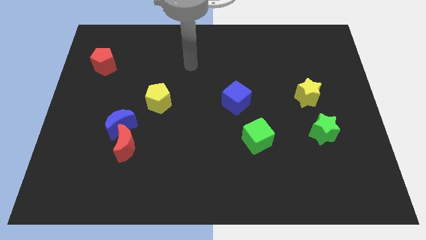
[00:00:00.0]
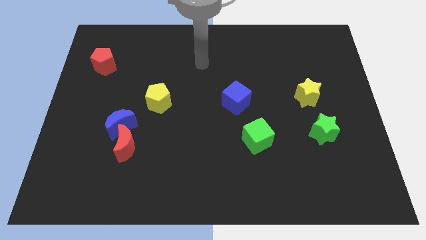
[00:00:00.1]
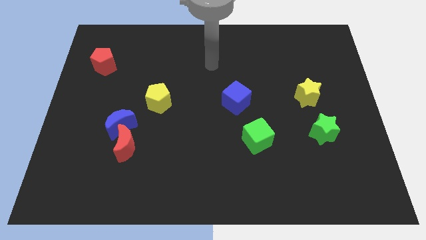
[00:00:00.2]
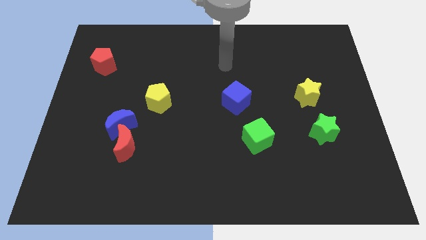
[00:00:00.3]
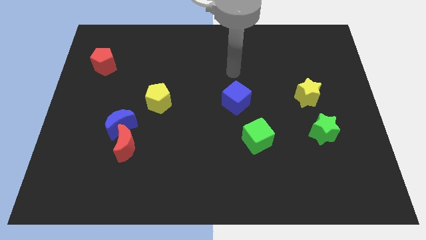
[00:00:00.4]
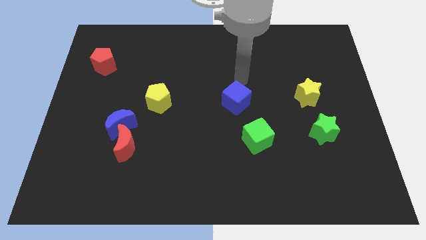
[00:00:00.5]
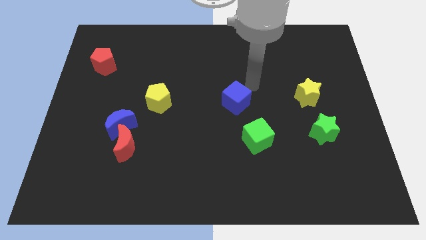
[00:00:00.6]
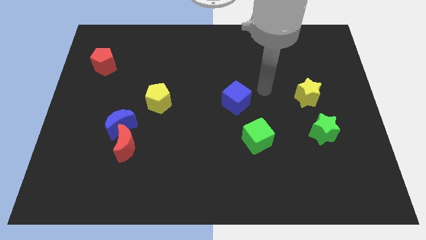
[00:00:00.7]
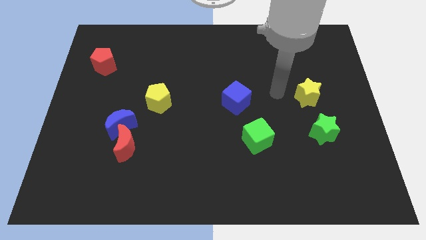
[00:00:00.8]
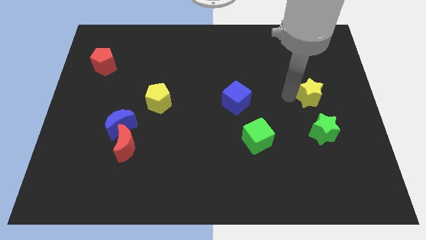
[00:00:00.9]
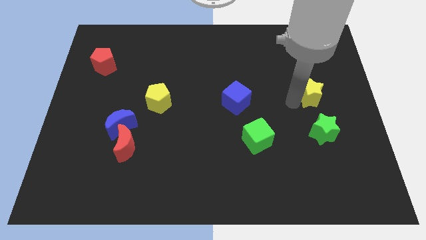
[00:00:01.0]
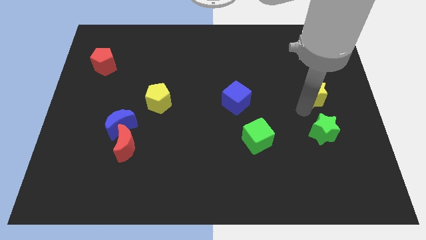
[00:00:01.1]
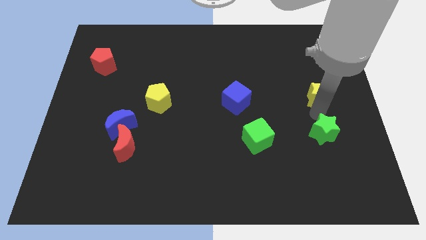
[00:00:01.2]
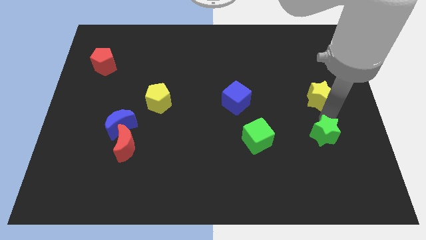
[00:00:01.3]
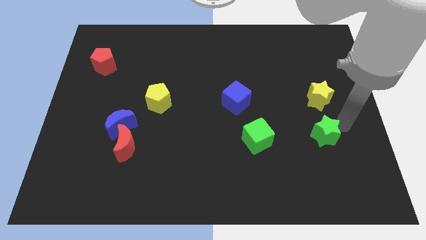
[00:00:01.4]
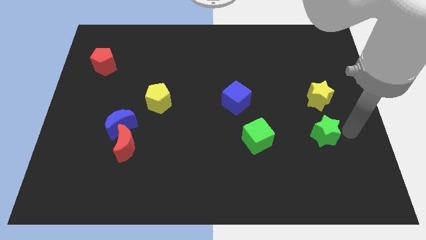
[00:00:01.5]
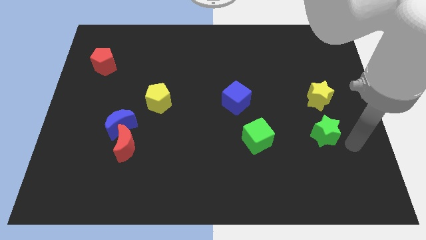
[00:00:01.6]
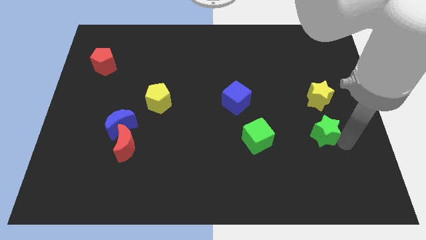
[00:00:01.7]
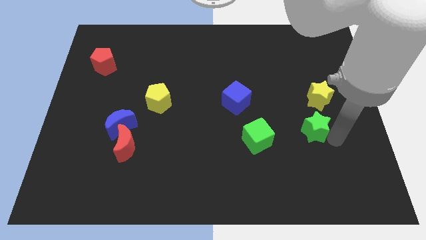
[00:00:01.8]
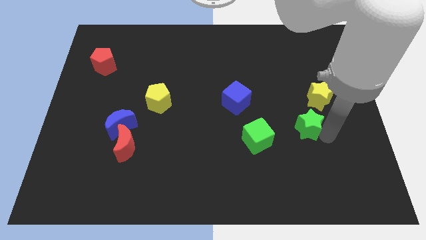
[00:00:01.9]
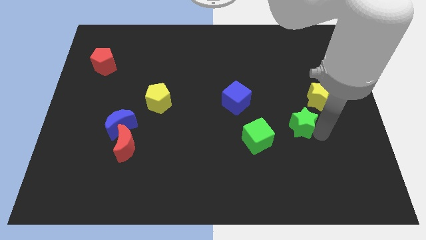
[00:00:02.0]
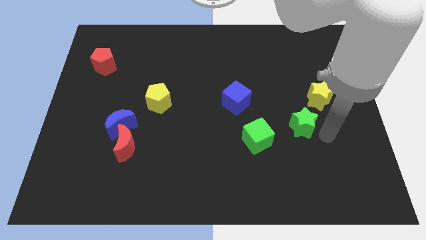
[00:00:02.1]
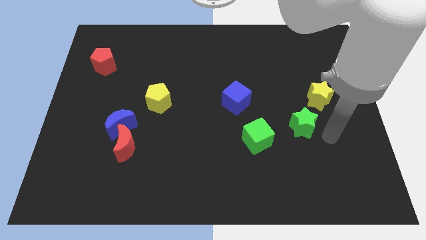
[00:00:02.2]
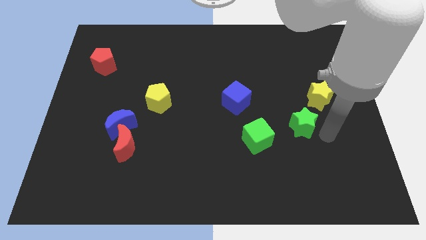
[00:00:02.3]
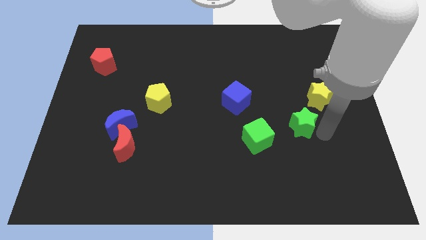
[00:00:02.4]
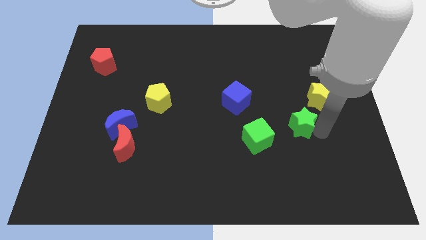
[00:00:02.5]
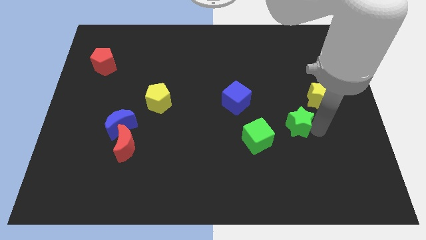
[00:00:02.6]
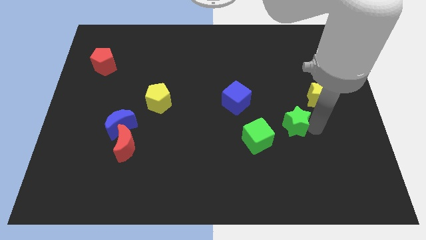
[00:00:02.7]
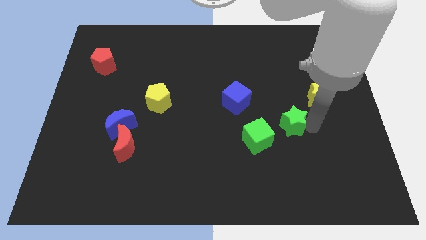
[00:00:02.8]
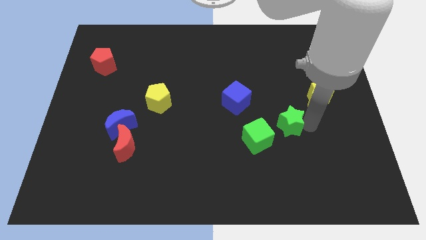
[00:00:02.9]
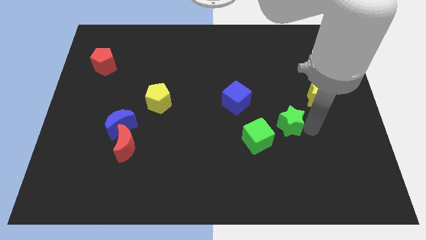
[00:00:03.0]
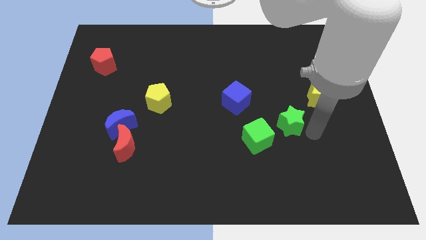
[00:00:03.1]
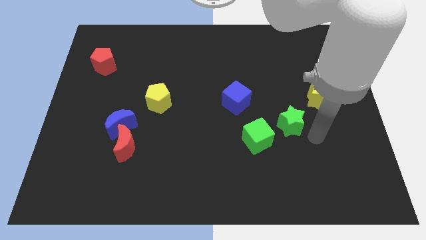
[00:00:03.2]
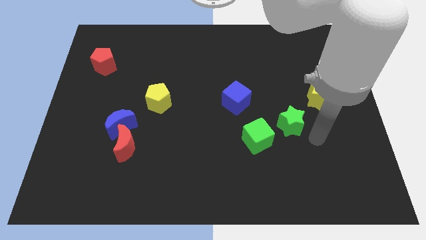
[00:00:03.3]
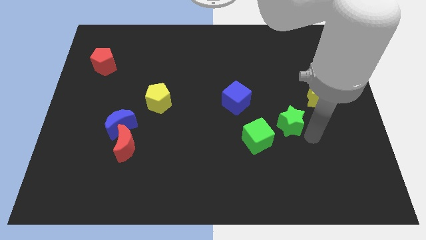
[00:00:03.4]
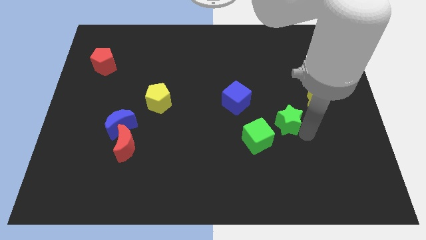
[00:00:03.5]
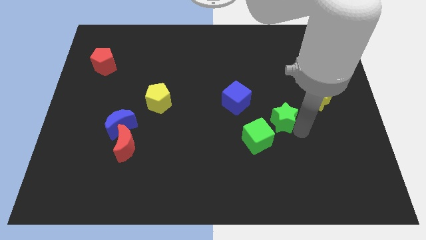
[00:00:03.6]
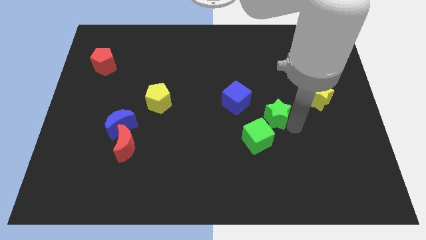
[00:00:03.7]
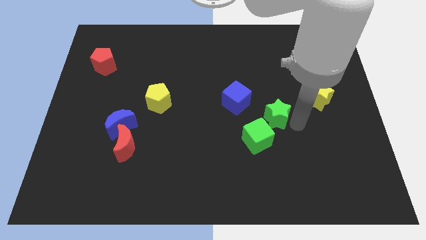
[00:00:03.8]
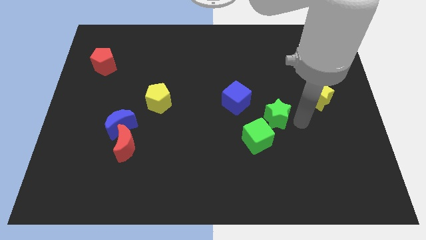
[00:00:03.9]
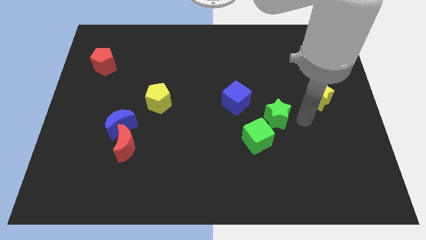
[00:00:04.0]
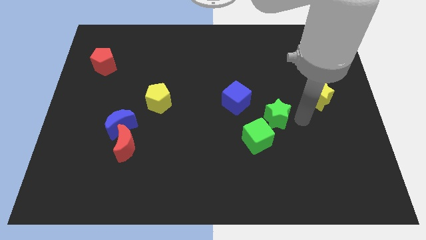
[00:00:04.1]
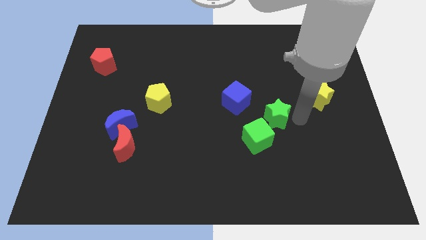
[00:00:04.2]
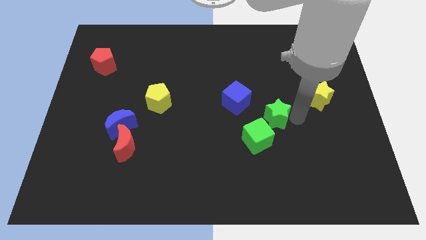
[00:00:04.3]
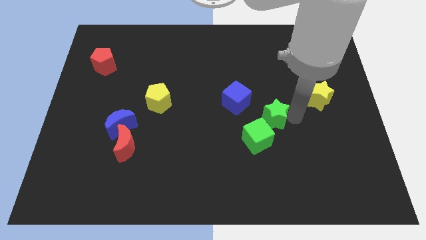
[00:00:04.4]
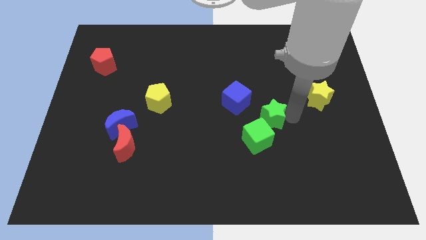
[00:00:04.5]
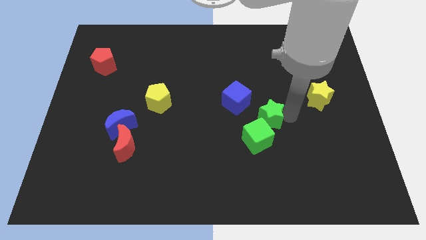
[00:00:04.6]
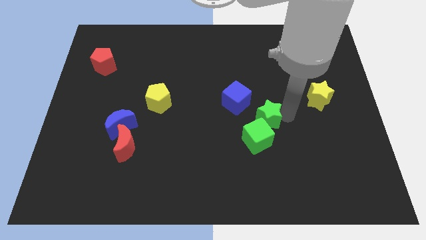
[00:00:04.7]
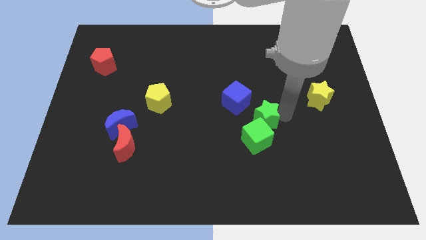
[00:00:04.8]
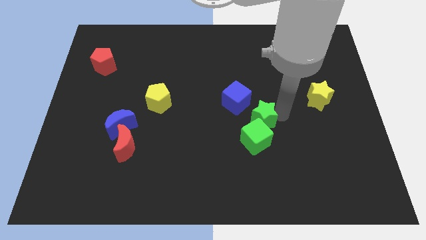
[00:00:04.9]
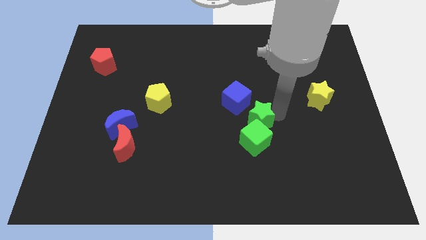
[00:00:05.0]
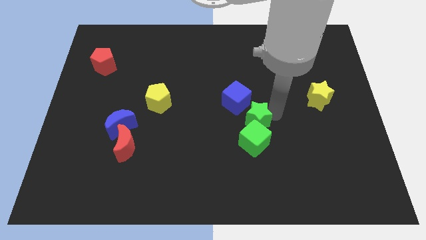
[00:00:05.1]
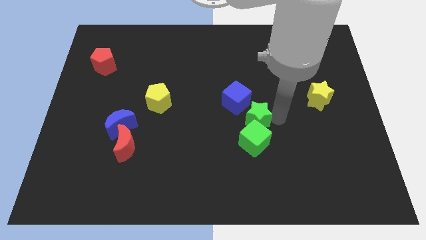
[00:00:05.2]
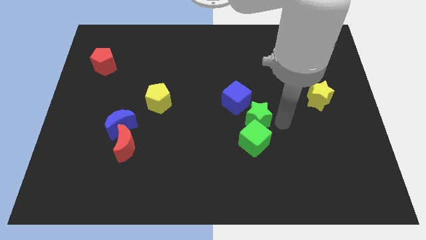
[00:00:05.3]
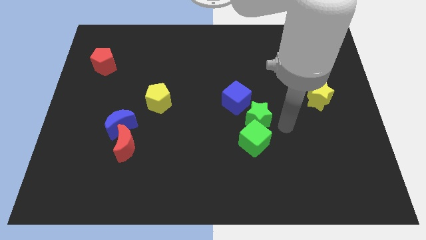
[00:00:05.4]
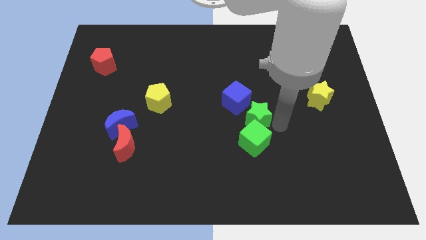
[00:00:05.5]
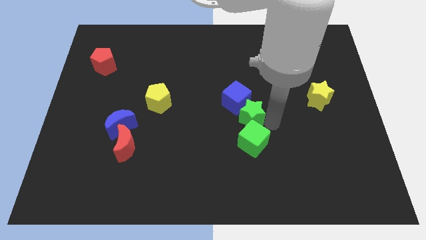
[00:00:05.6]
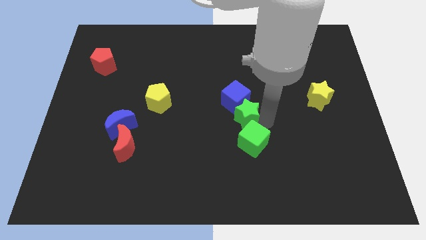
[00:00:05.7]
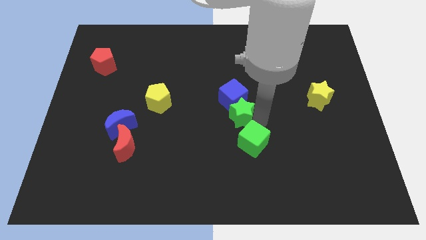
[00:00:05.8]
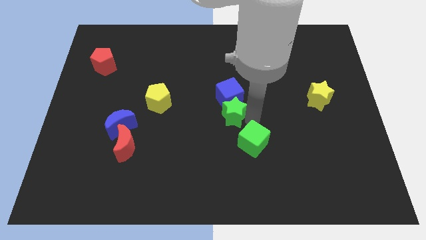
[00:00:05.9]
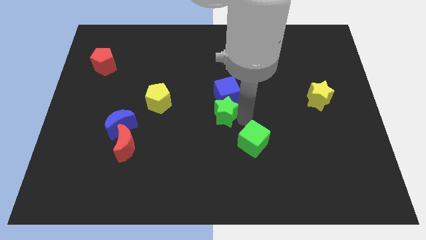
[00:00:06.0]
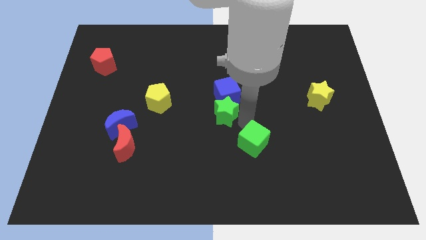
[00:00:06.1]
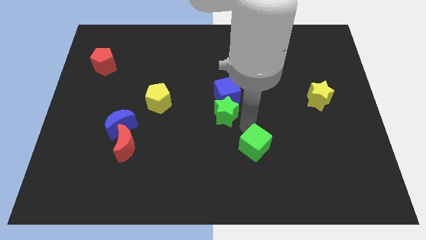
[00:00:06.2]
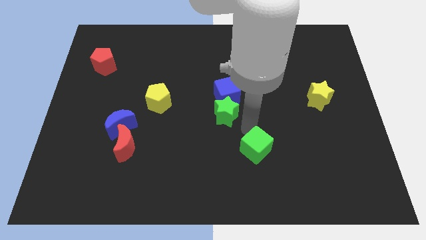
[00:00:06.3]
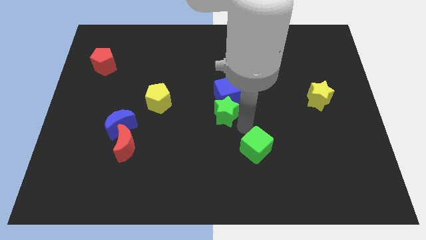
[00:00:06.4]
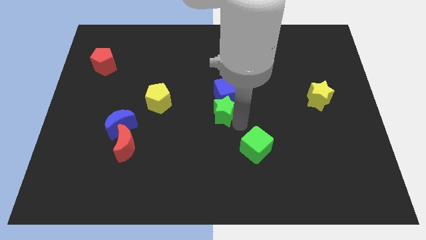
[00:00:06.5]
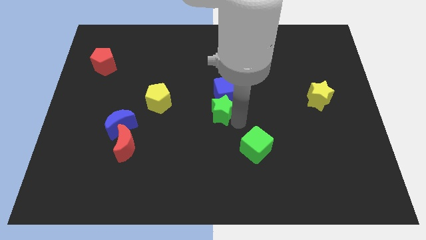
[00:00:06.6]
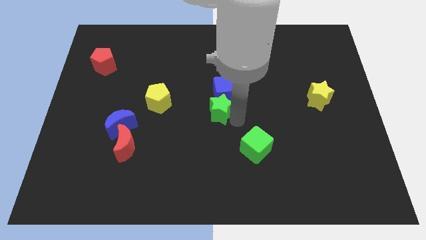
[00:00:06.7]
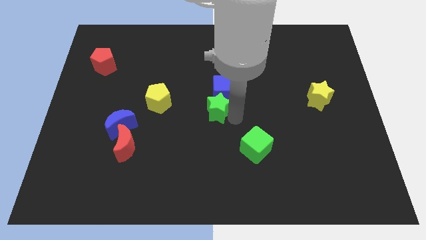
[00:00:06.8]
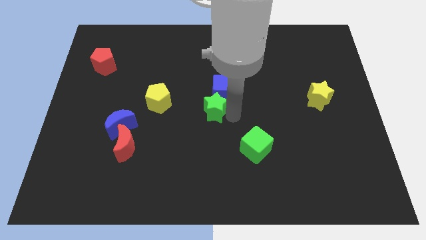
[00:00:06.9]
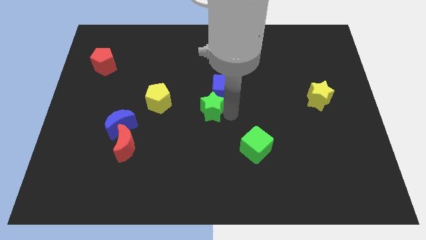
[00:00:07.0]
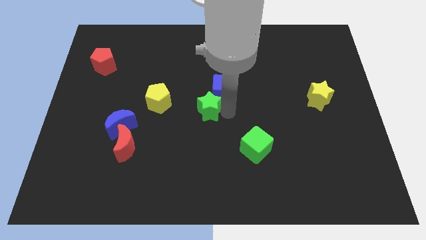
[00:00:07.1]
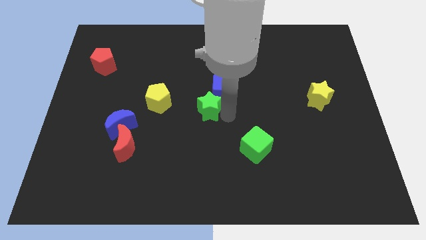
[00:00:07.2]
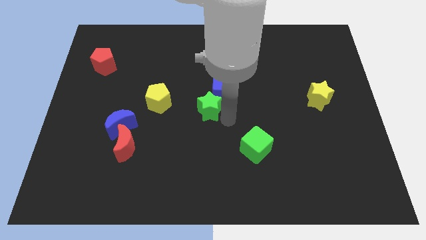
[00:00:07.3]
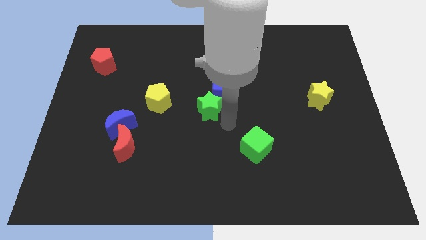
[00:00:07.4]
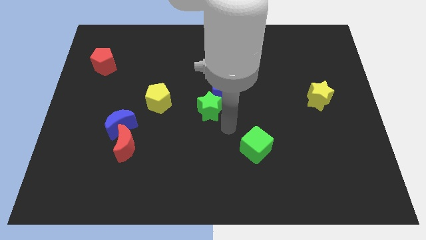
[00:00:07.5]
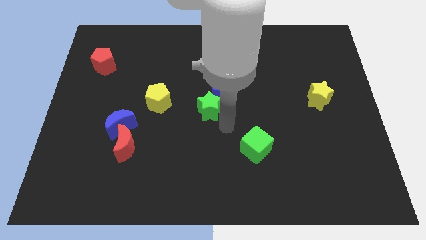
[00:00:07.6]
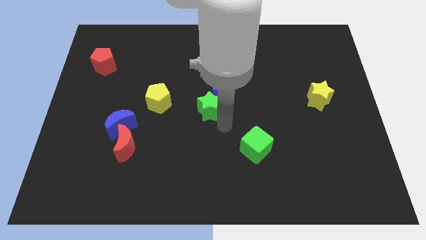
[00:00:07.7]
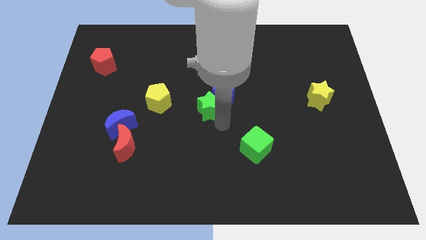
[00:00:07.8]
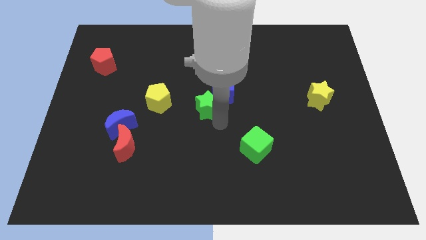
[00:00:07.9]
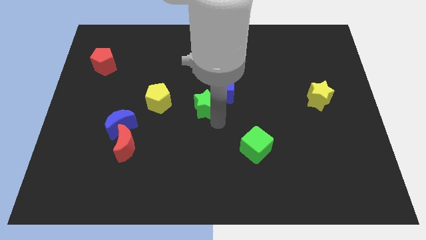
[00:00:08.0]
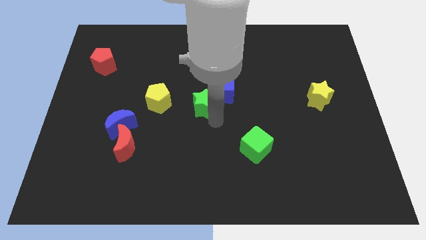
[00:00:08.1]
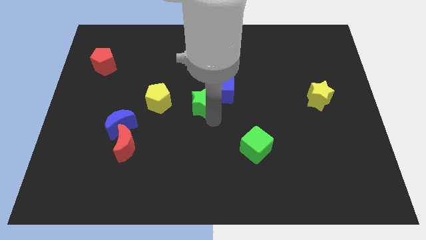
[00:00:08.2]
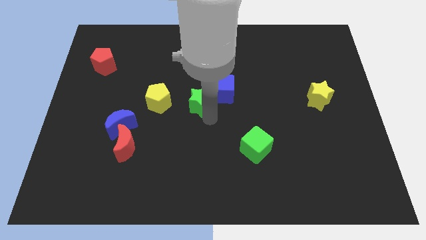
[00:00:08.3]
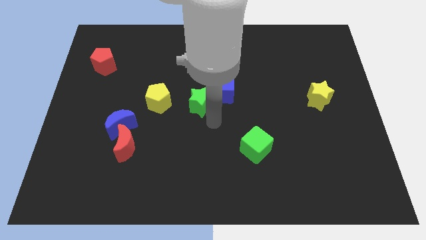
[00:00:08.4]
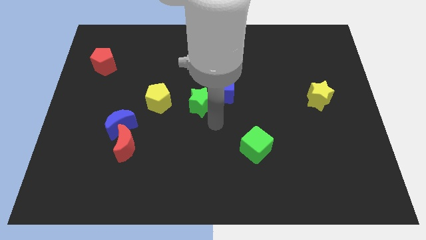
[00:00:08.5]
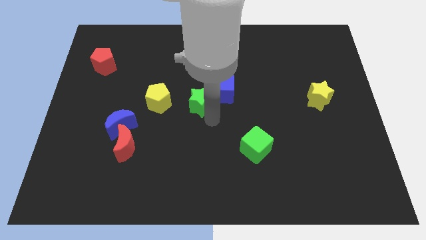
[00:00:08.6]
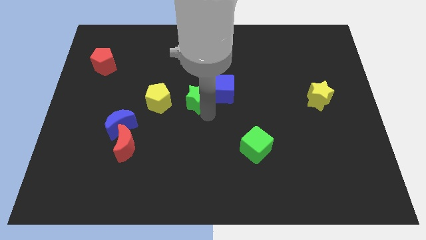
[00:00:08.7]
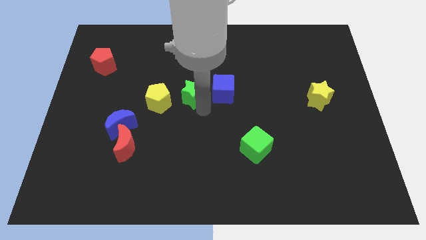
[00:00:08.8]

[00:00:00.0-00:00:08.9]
move the green star to the top right of the yellow pentagon
